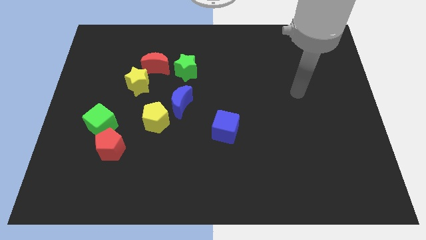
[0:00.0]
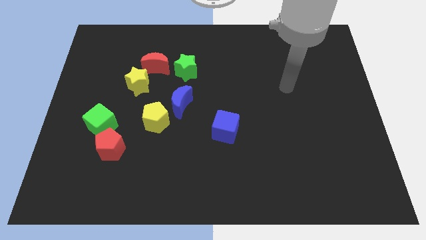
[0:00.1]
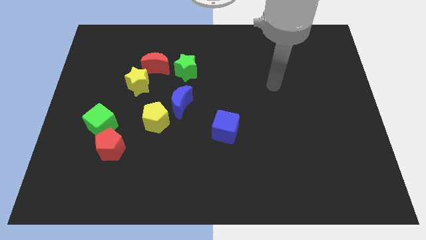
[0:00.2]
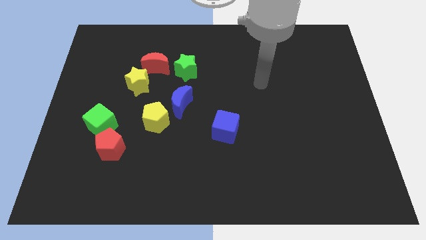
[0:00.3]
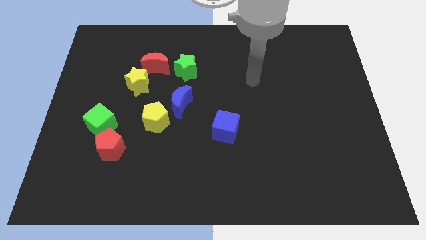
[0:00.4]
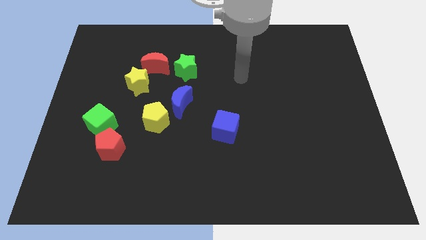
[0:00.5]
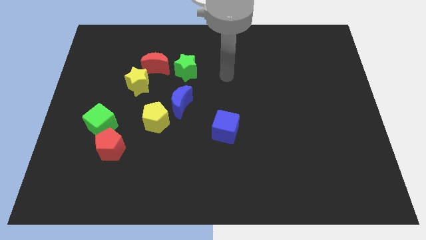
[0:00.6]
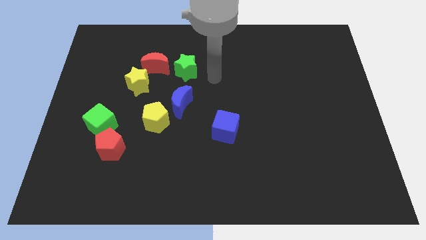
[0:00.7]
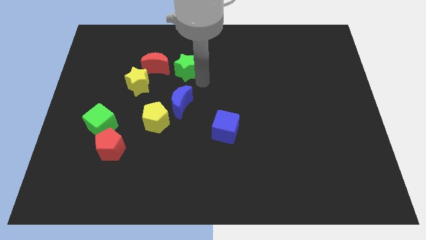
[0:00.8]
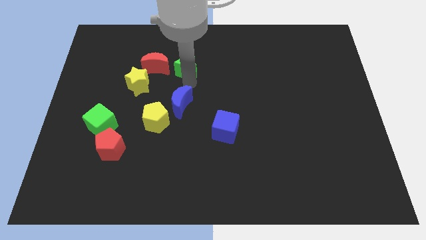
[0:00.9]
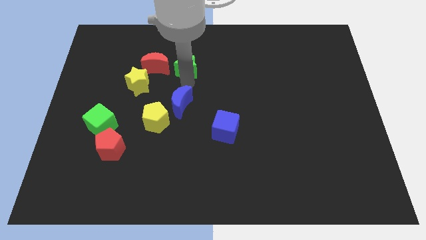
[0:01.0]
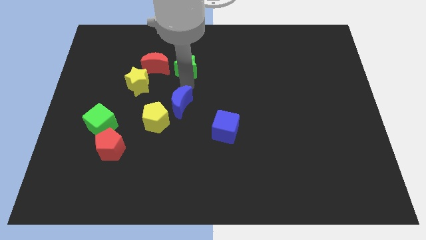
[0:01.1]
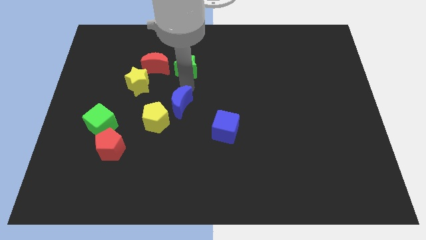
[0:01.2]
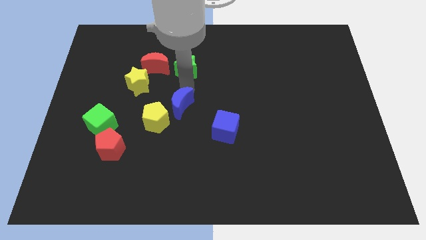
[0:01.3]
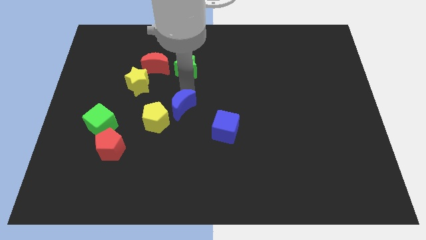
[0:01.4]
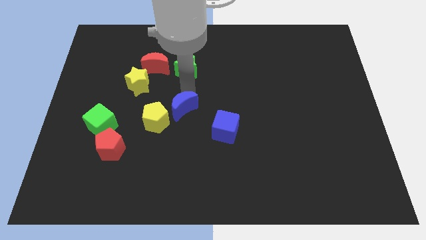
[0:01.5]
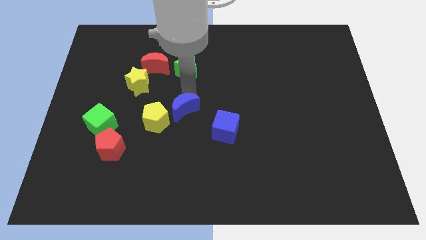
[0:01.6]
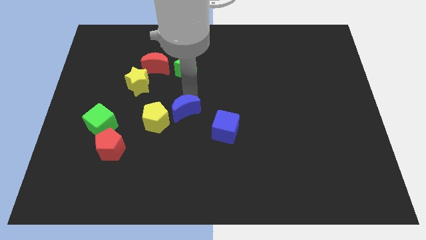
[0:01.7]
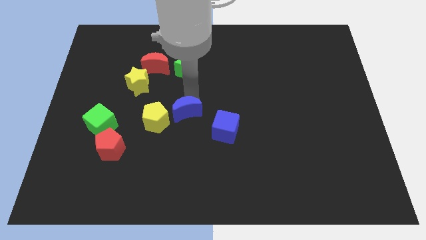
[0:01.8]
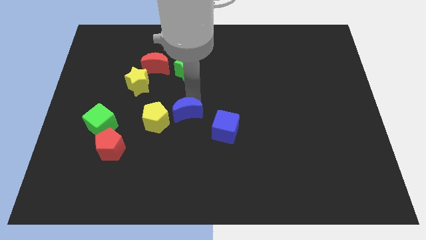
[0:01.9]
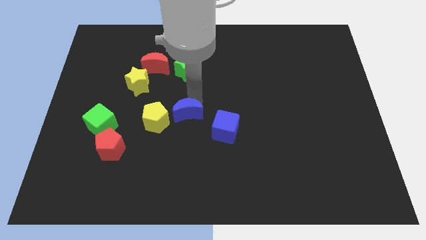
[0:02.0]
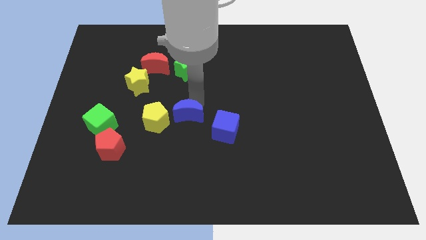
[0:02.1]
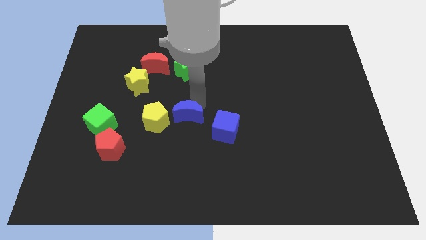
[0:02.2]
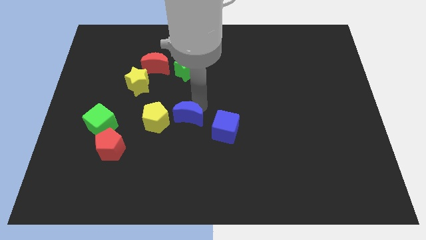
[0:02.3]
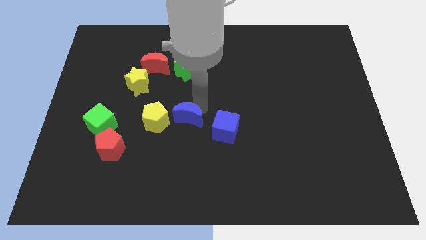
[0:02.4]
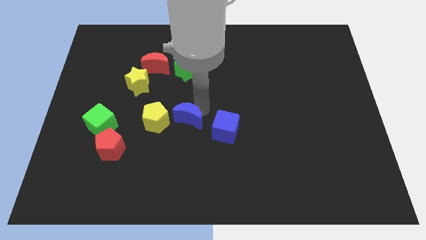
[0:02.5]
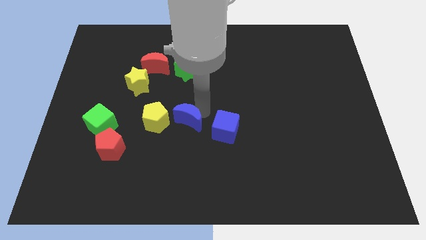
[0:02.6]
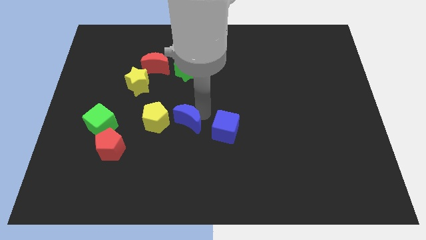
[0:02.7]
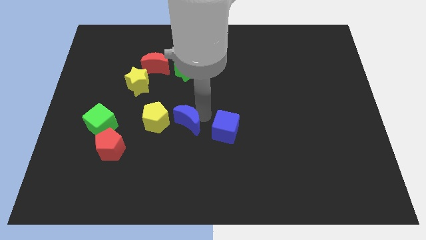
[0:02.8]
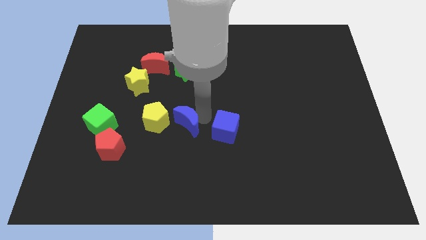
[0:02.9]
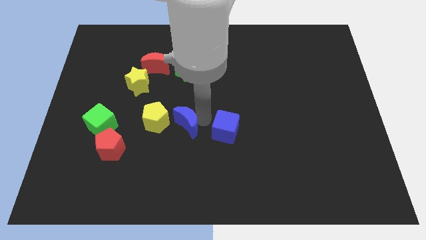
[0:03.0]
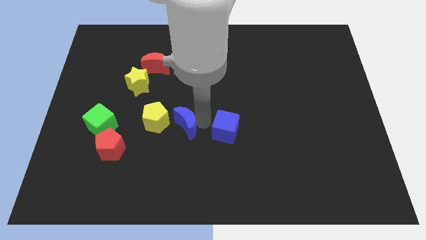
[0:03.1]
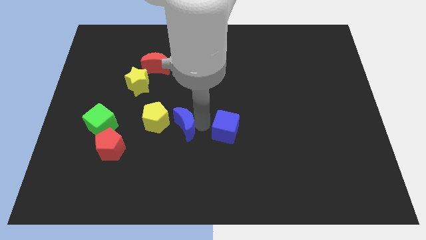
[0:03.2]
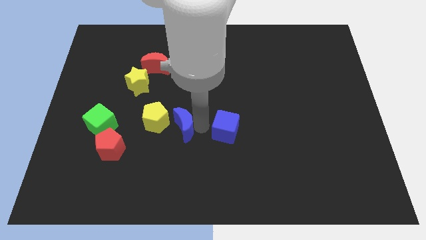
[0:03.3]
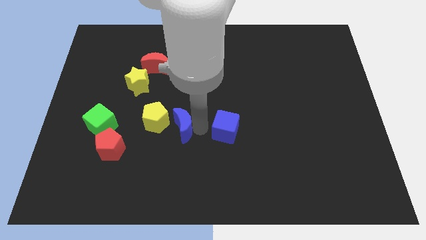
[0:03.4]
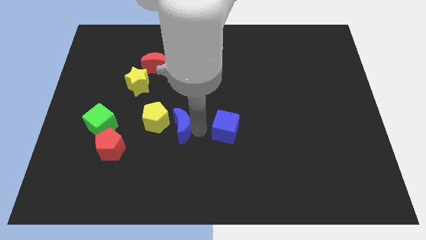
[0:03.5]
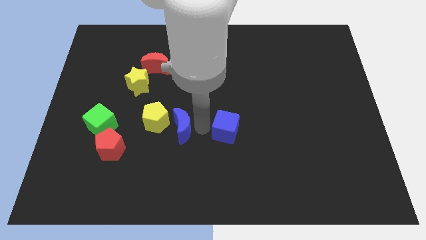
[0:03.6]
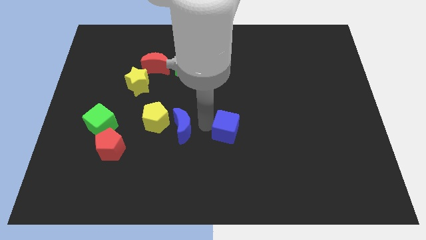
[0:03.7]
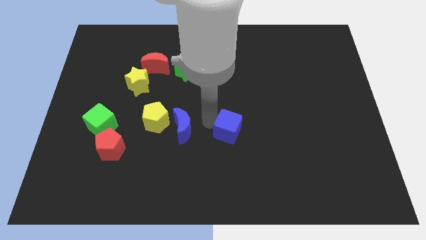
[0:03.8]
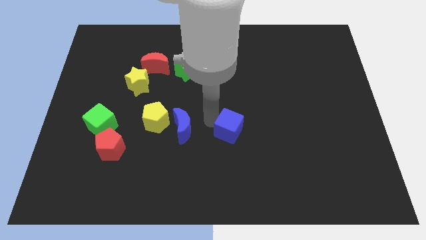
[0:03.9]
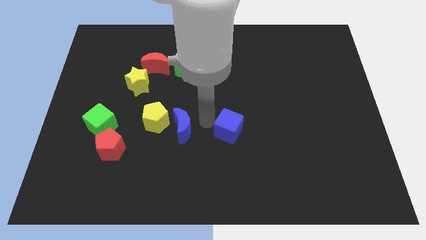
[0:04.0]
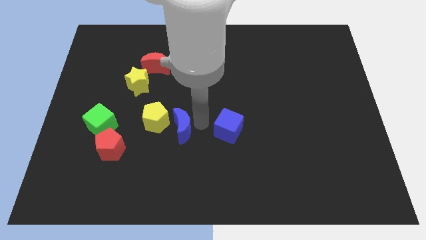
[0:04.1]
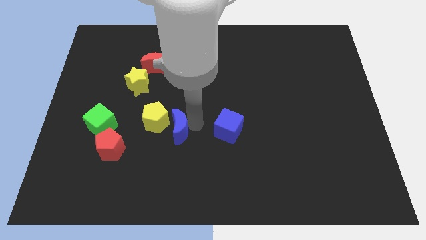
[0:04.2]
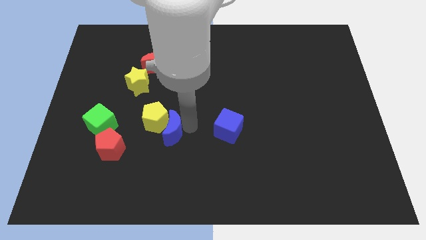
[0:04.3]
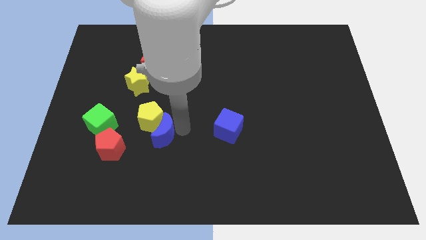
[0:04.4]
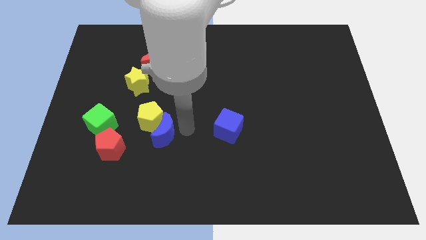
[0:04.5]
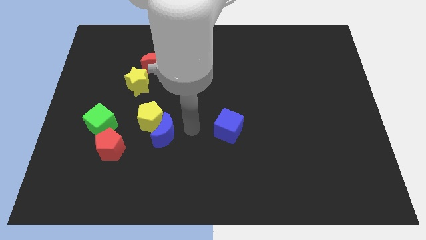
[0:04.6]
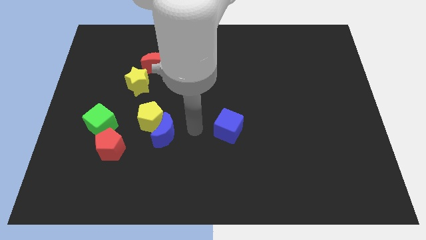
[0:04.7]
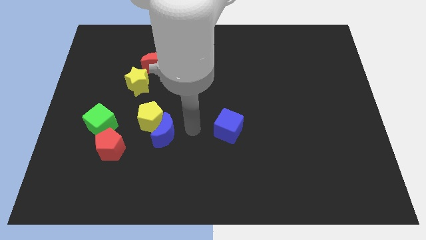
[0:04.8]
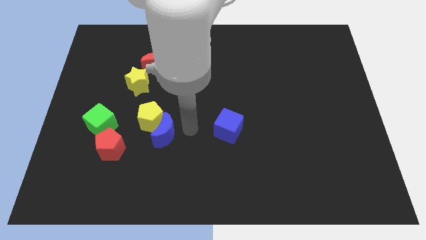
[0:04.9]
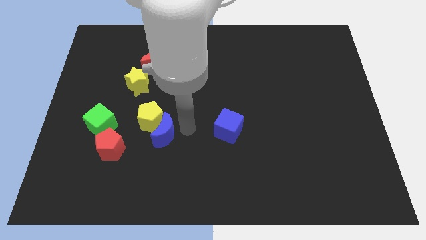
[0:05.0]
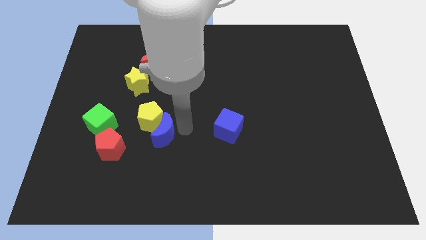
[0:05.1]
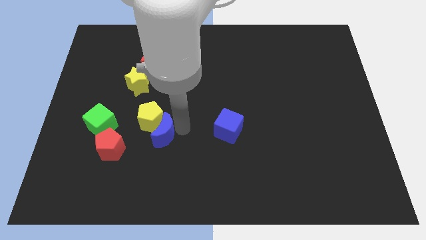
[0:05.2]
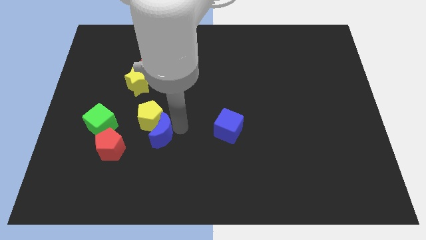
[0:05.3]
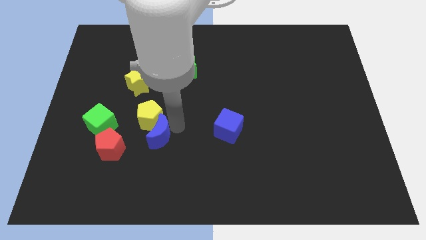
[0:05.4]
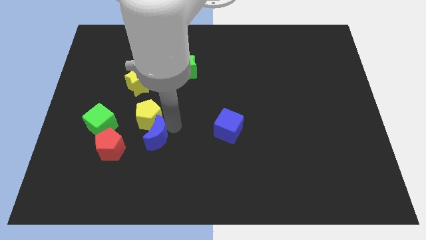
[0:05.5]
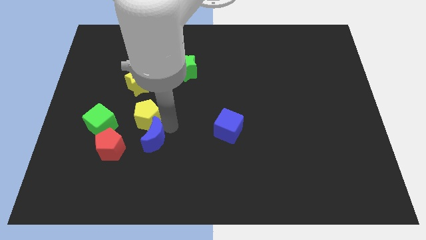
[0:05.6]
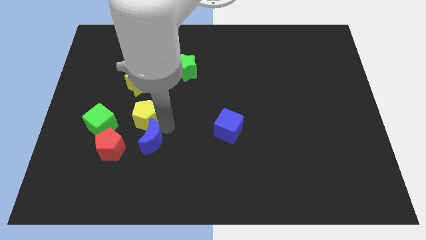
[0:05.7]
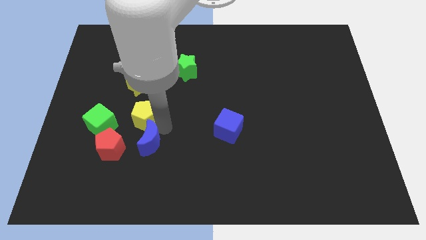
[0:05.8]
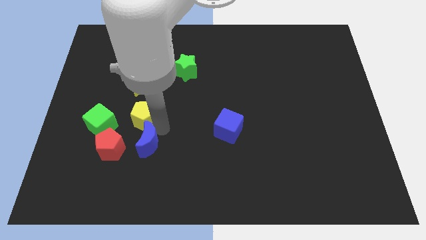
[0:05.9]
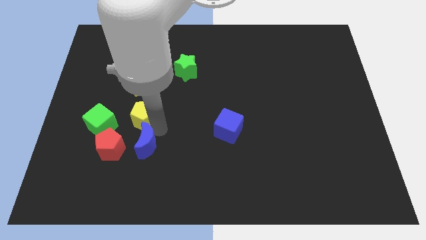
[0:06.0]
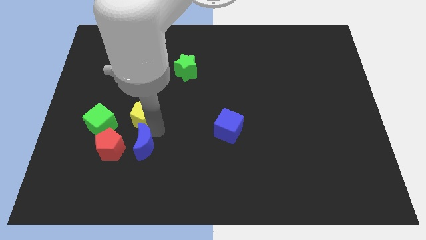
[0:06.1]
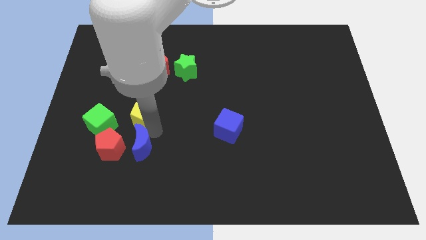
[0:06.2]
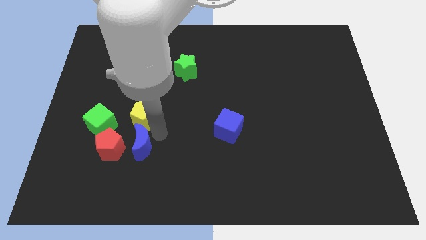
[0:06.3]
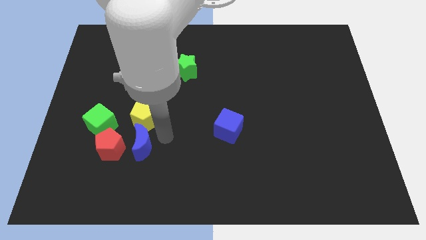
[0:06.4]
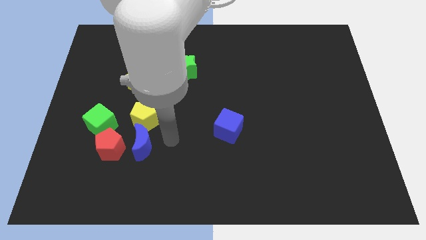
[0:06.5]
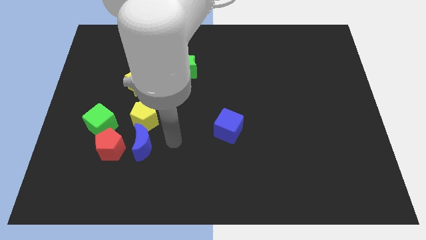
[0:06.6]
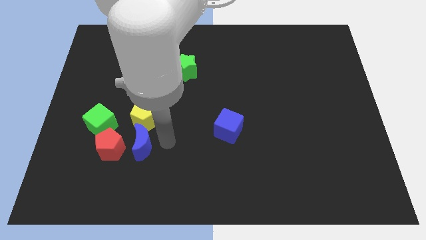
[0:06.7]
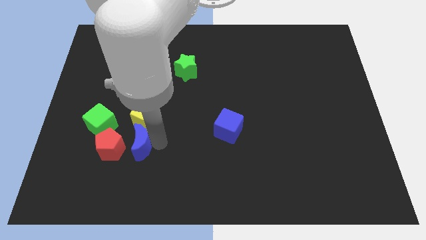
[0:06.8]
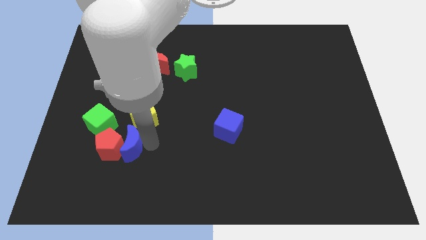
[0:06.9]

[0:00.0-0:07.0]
push the blue moon towards the red pentagon

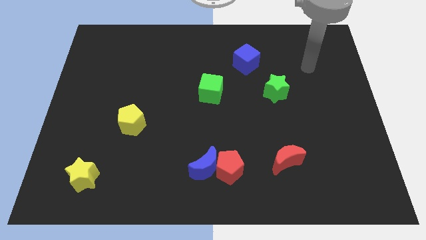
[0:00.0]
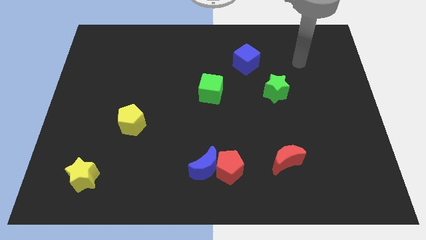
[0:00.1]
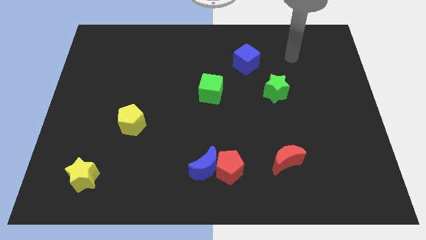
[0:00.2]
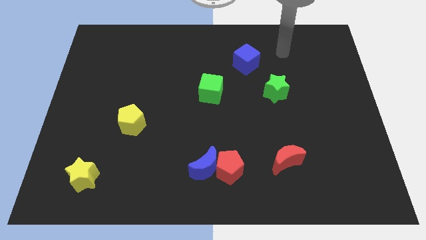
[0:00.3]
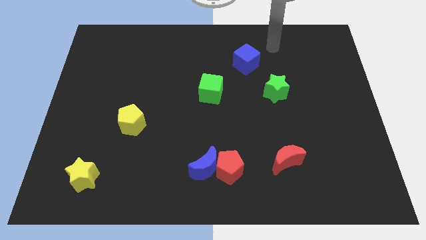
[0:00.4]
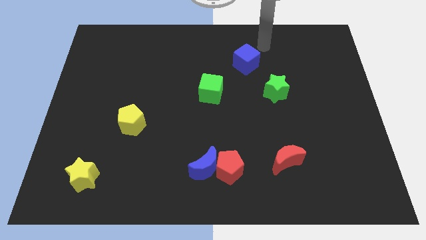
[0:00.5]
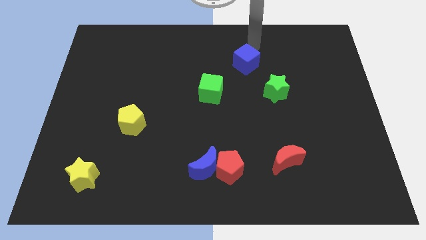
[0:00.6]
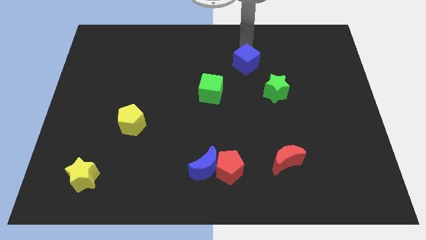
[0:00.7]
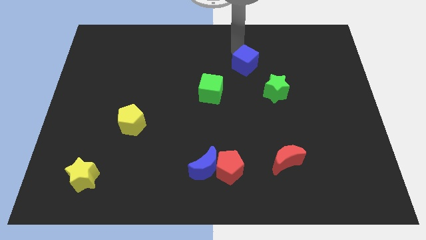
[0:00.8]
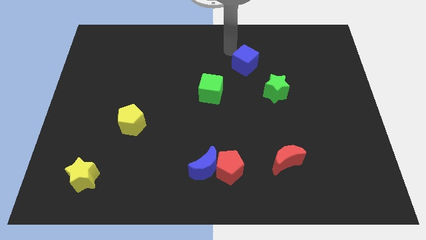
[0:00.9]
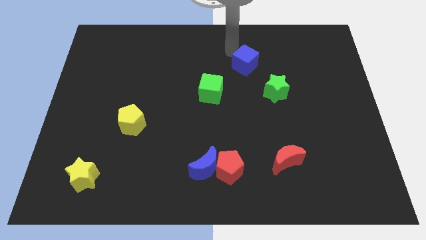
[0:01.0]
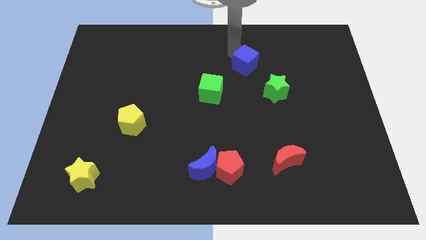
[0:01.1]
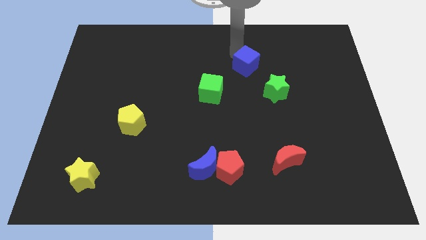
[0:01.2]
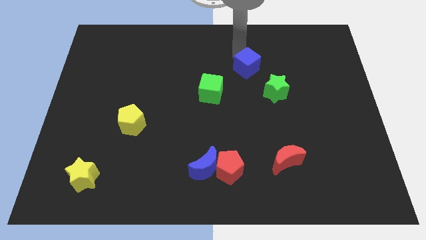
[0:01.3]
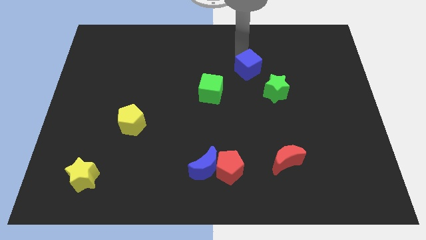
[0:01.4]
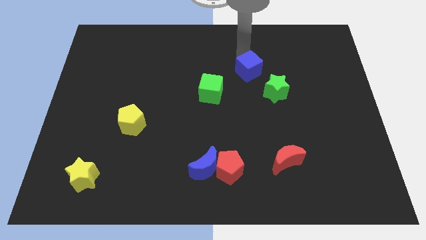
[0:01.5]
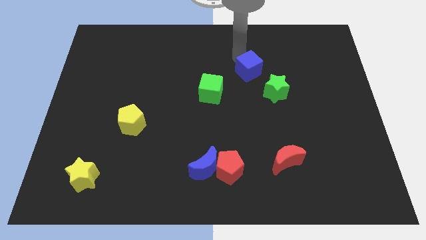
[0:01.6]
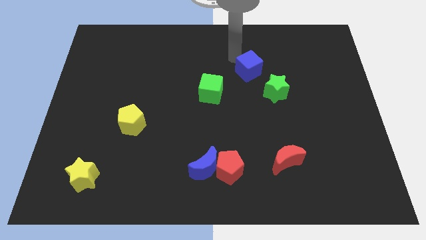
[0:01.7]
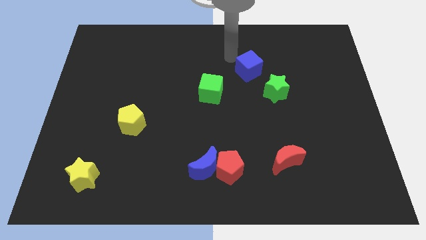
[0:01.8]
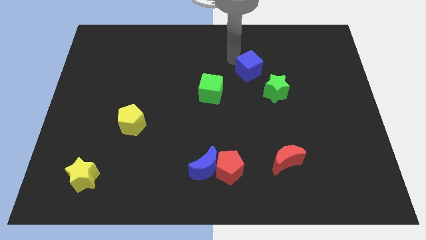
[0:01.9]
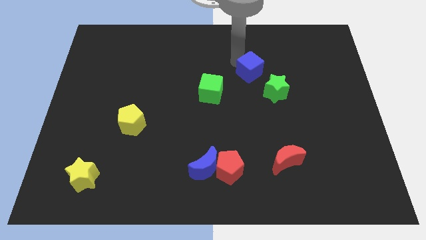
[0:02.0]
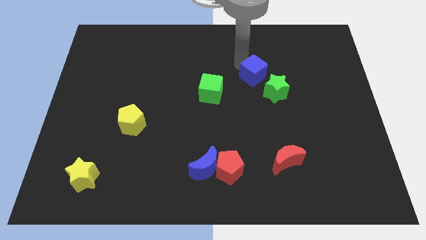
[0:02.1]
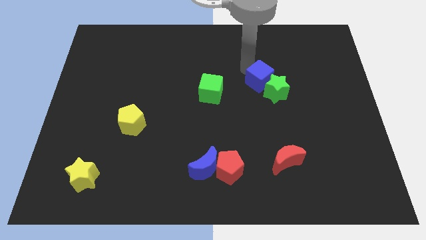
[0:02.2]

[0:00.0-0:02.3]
slide the blue cube next to the green star
